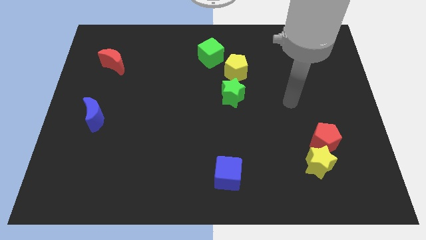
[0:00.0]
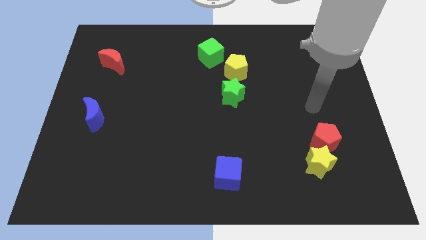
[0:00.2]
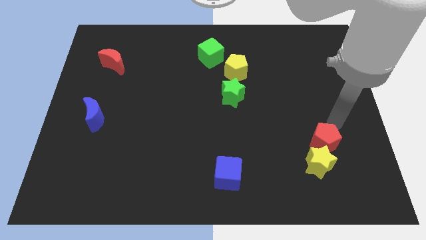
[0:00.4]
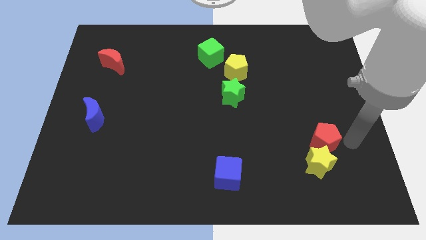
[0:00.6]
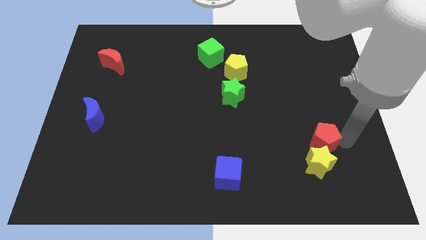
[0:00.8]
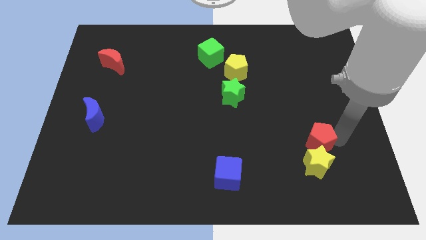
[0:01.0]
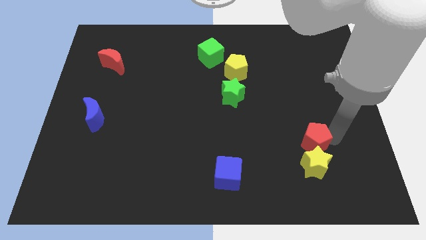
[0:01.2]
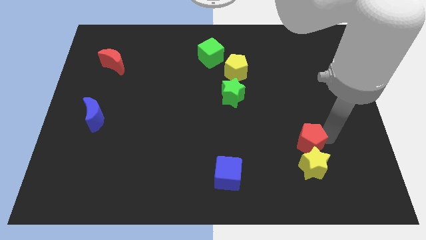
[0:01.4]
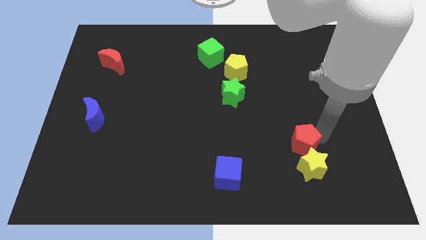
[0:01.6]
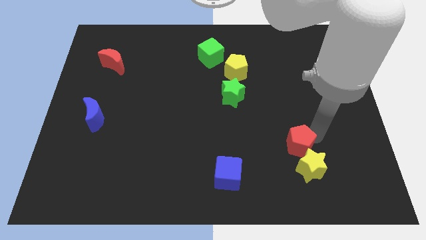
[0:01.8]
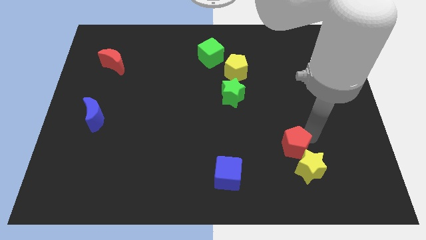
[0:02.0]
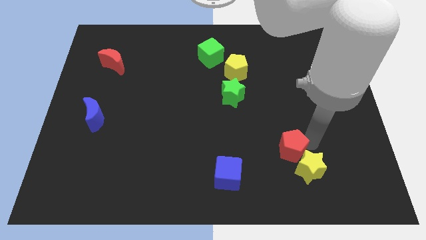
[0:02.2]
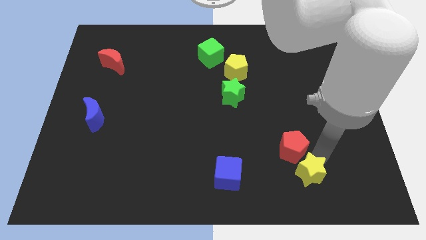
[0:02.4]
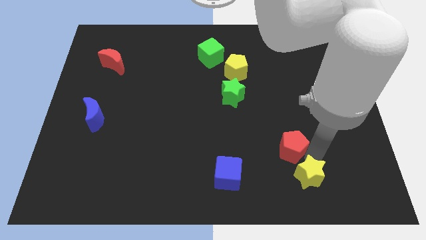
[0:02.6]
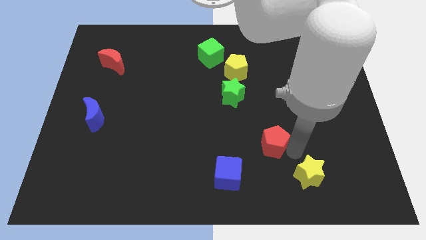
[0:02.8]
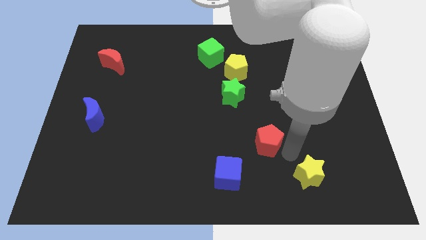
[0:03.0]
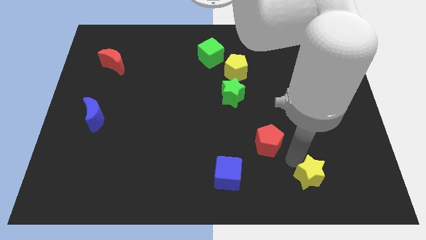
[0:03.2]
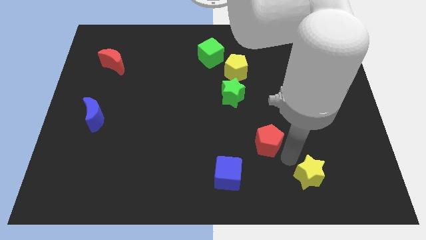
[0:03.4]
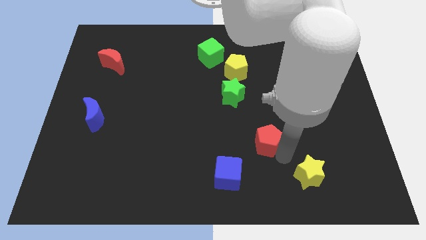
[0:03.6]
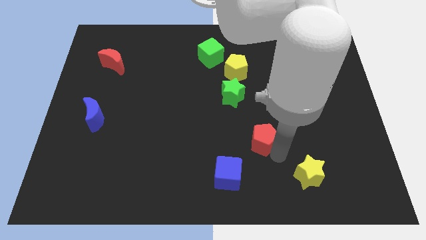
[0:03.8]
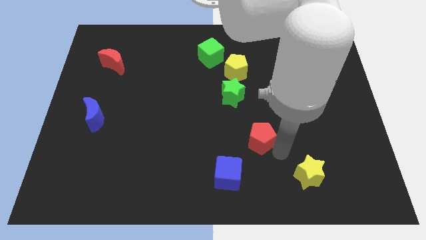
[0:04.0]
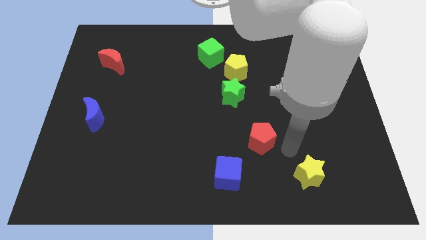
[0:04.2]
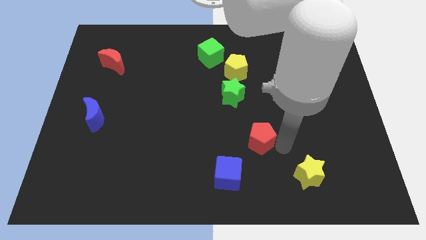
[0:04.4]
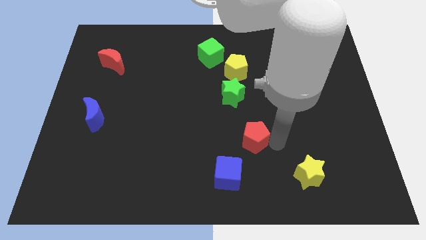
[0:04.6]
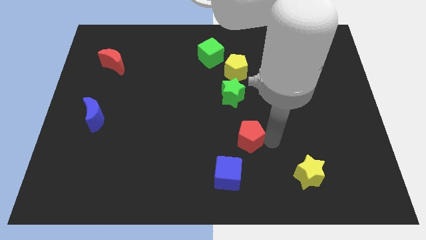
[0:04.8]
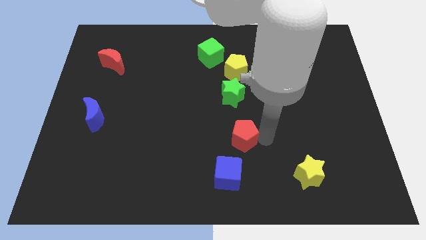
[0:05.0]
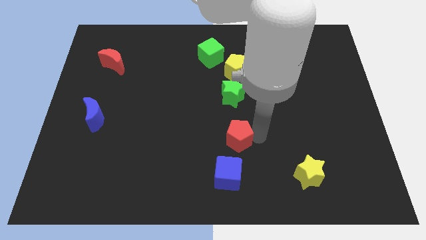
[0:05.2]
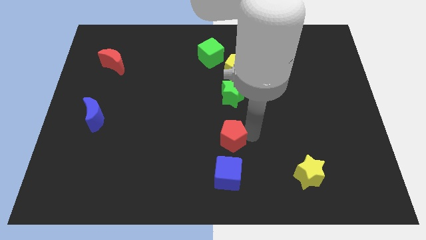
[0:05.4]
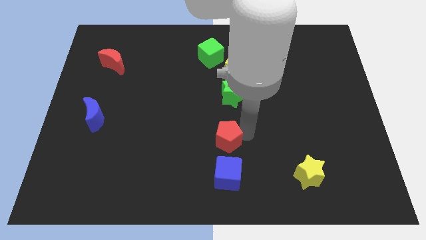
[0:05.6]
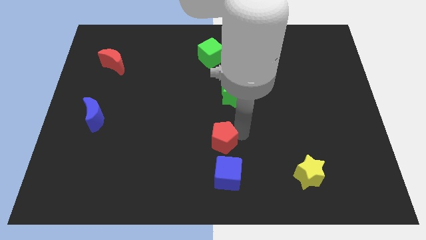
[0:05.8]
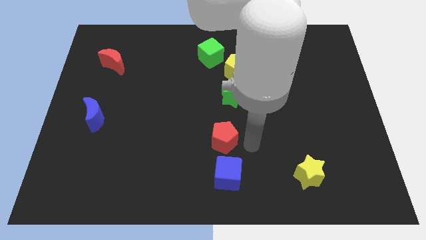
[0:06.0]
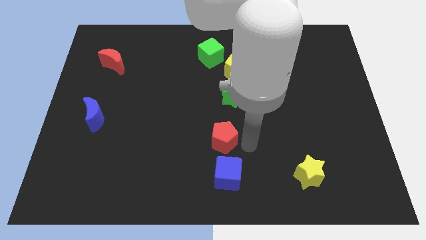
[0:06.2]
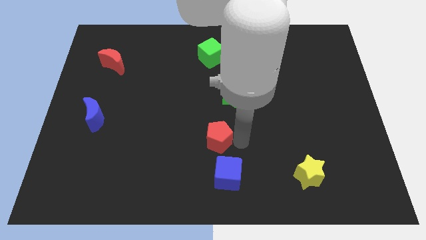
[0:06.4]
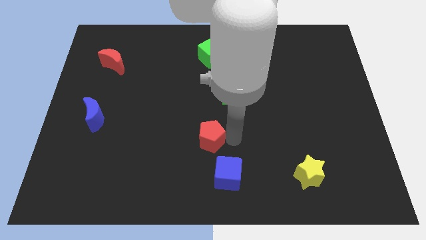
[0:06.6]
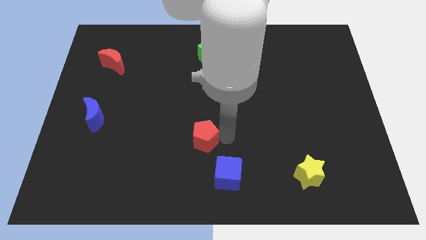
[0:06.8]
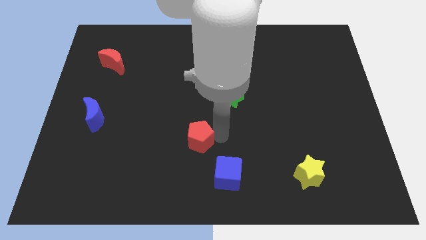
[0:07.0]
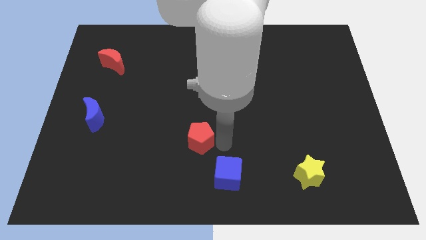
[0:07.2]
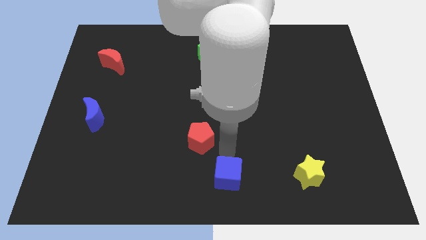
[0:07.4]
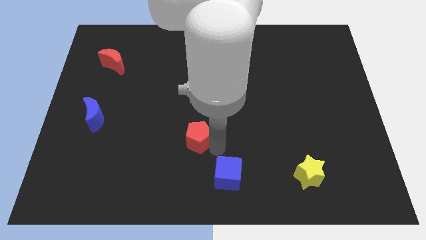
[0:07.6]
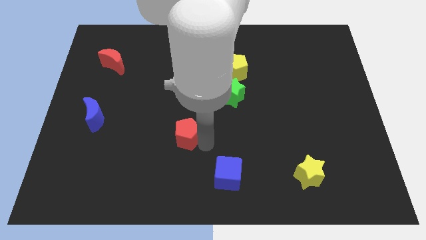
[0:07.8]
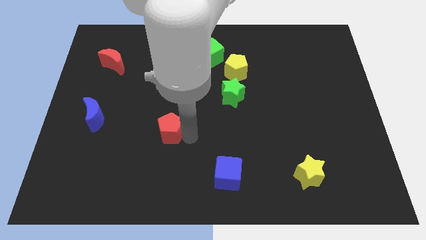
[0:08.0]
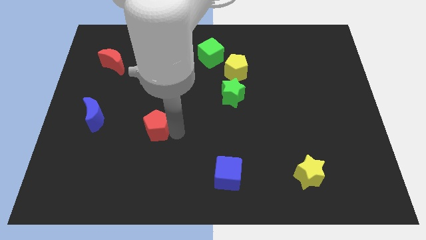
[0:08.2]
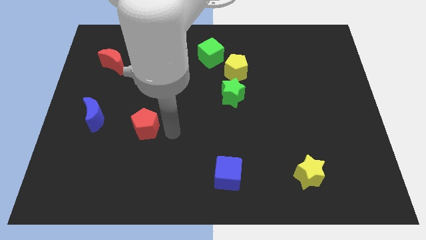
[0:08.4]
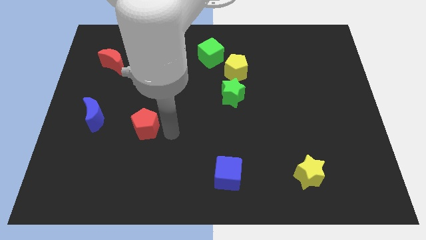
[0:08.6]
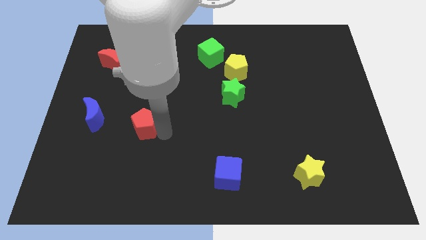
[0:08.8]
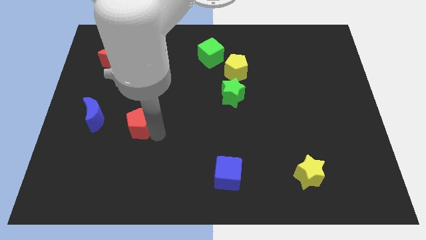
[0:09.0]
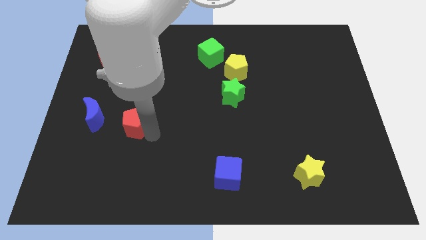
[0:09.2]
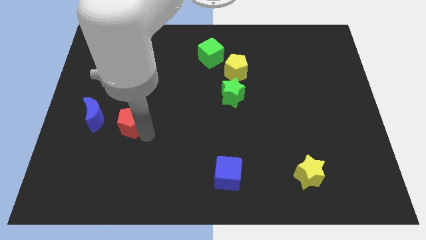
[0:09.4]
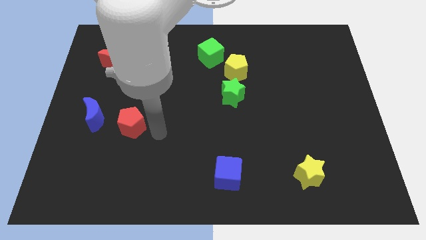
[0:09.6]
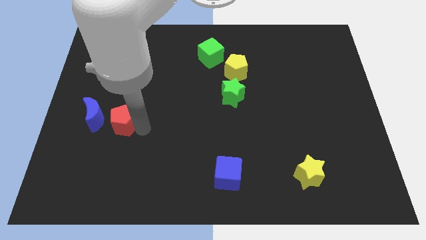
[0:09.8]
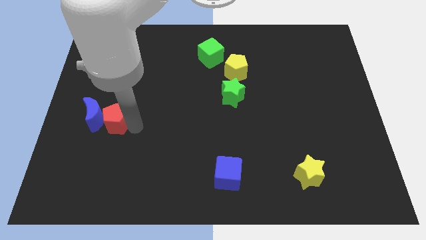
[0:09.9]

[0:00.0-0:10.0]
put the red pentagon towards the blue moon

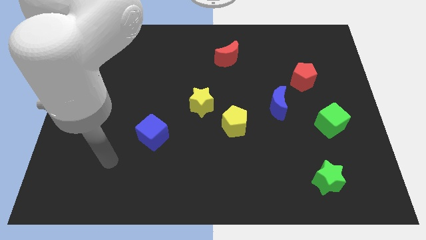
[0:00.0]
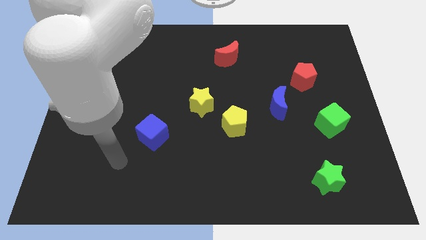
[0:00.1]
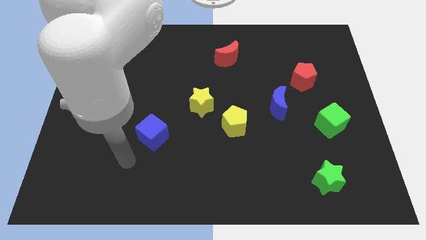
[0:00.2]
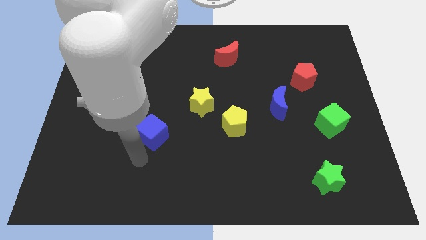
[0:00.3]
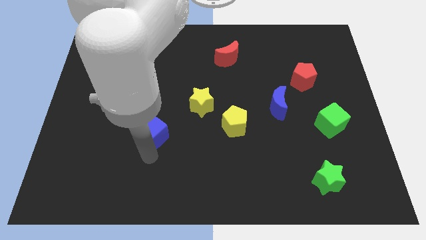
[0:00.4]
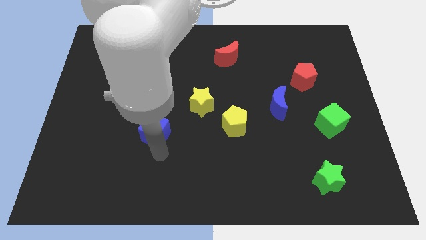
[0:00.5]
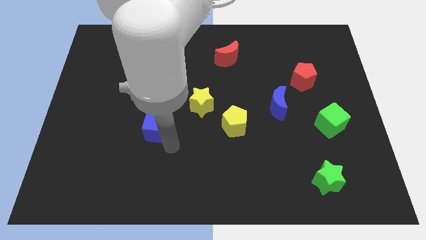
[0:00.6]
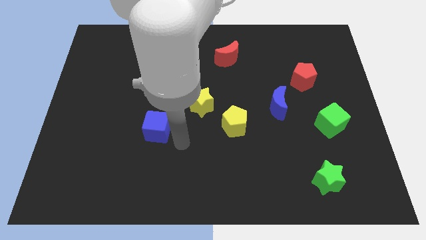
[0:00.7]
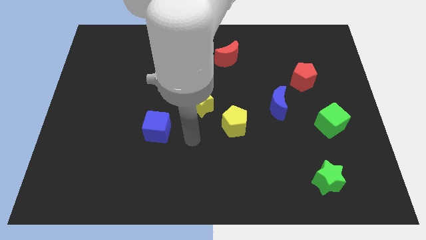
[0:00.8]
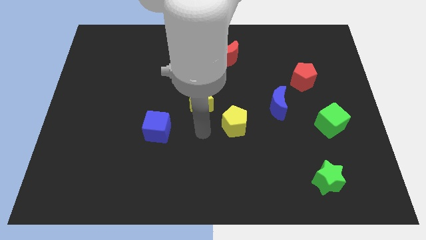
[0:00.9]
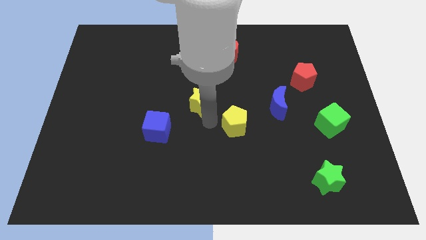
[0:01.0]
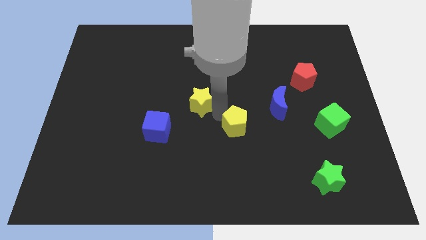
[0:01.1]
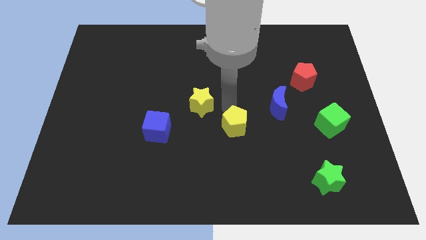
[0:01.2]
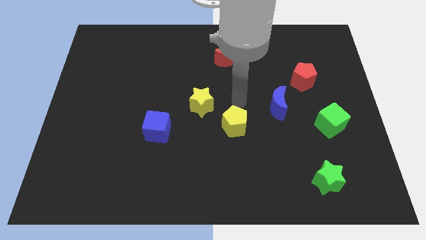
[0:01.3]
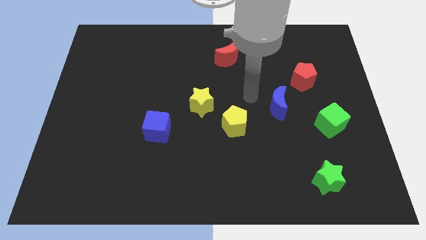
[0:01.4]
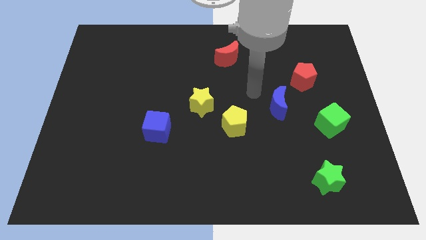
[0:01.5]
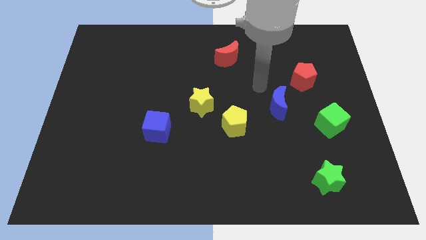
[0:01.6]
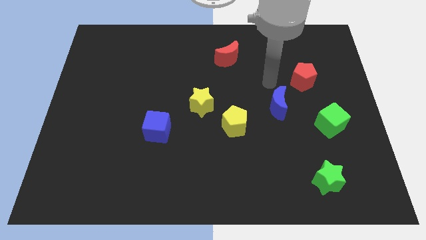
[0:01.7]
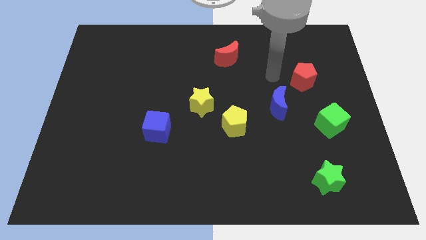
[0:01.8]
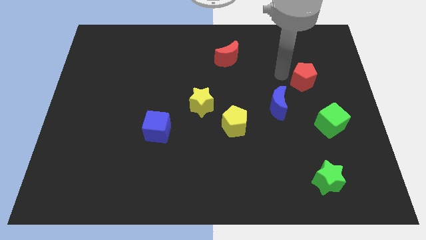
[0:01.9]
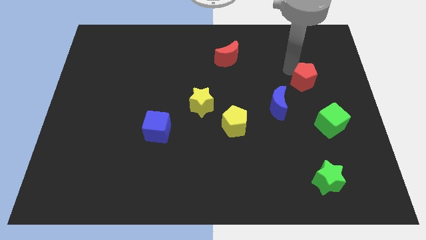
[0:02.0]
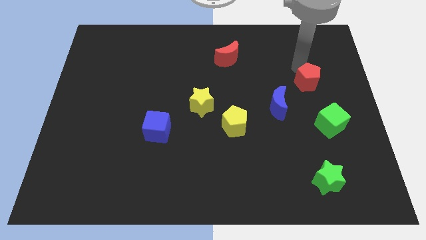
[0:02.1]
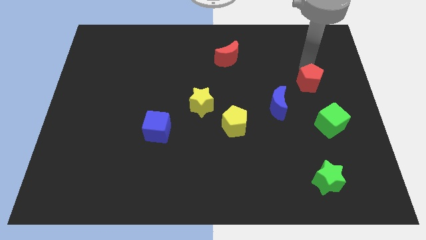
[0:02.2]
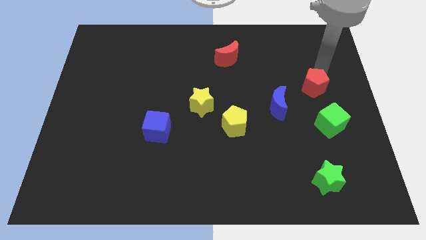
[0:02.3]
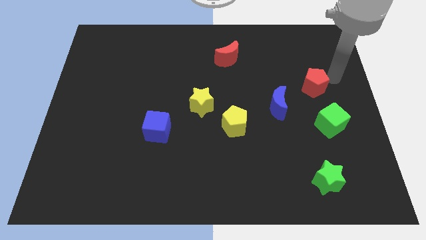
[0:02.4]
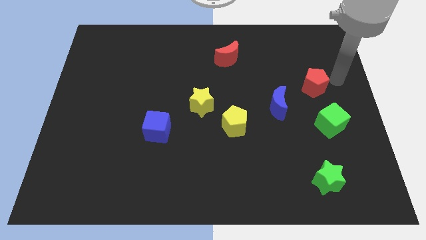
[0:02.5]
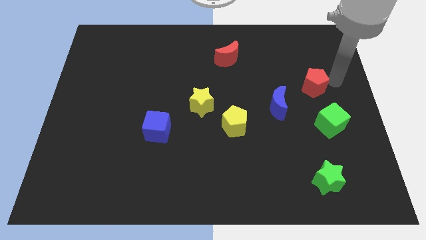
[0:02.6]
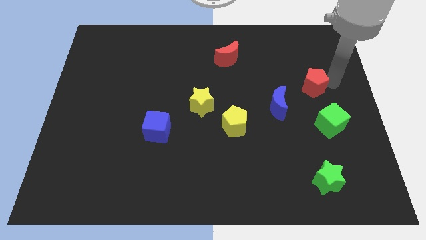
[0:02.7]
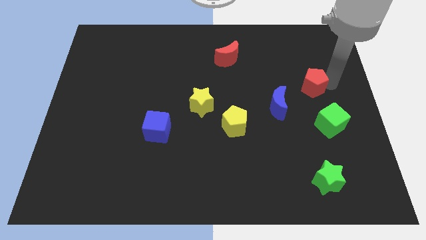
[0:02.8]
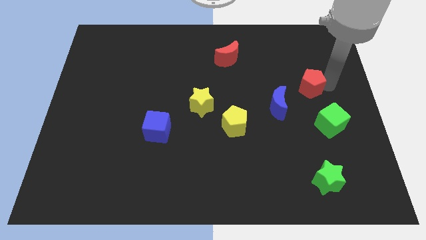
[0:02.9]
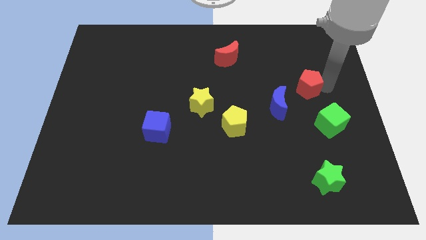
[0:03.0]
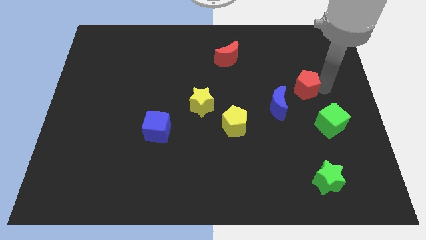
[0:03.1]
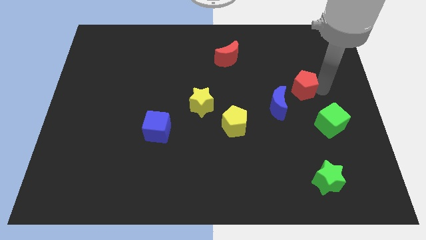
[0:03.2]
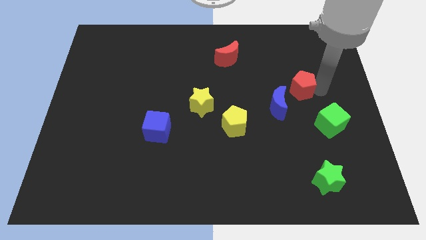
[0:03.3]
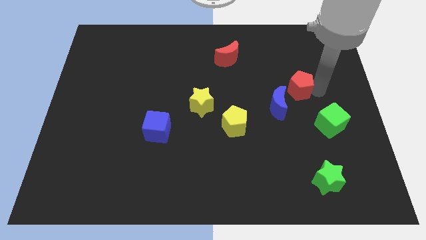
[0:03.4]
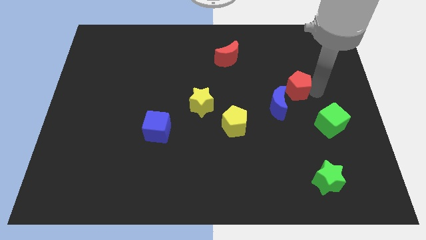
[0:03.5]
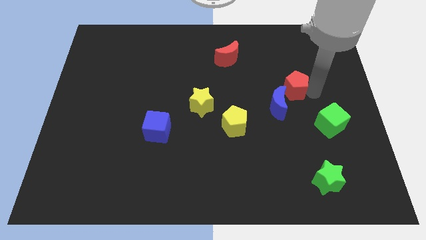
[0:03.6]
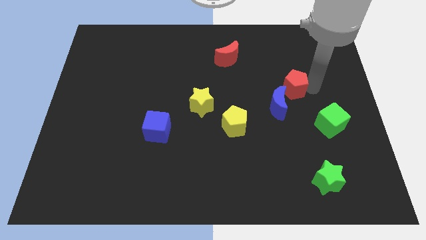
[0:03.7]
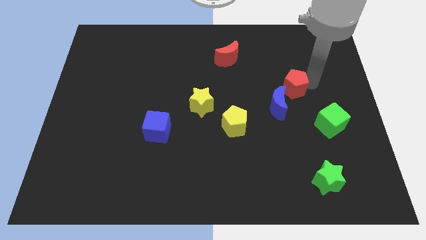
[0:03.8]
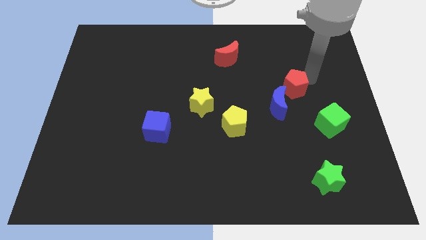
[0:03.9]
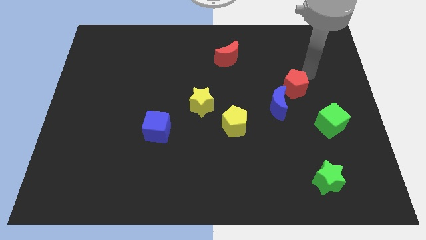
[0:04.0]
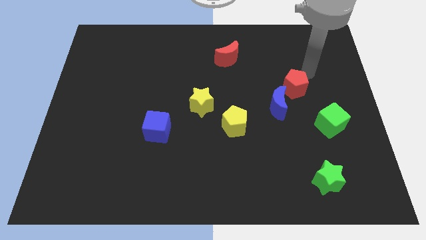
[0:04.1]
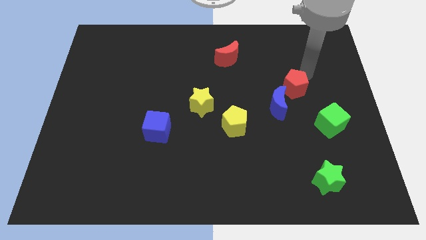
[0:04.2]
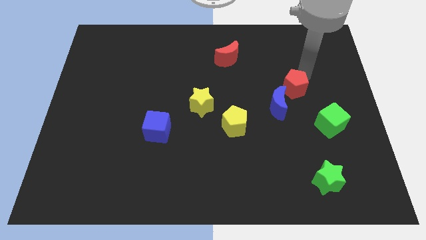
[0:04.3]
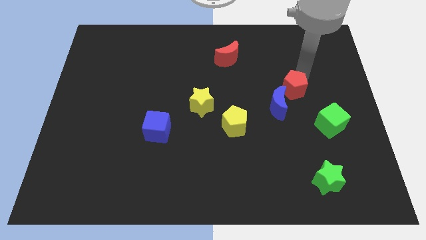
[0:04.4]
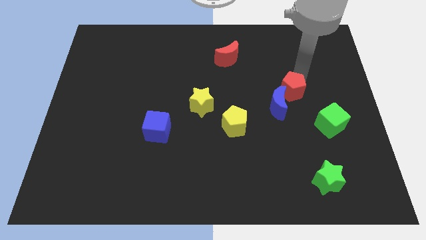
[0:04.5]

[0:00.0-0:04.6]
slide the red pentagon next to the blue moon
